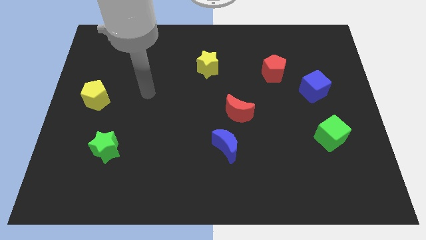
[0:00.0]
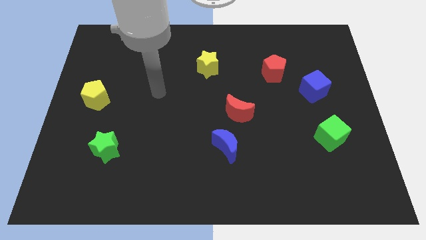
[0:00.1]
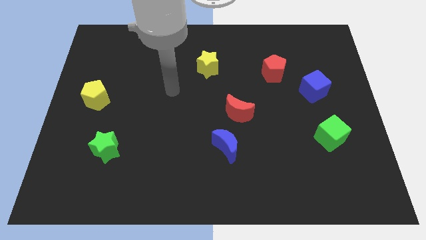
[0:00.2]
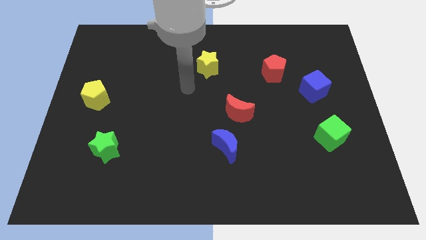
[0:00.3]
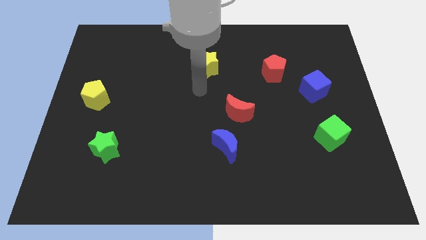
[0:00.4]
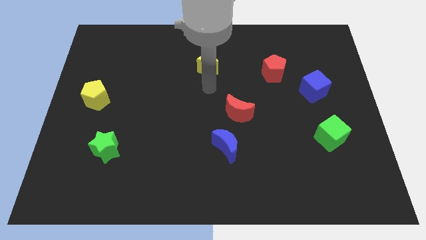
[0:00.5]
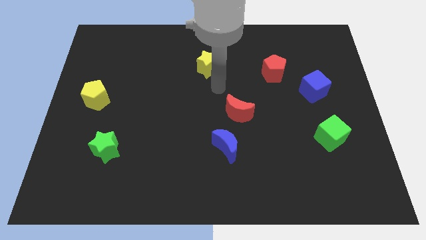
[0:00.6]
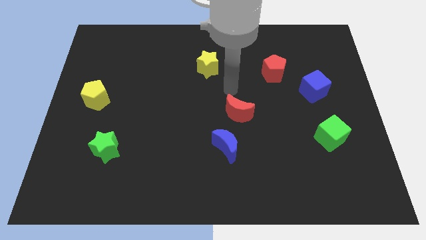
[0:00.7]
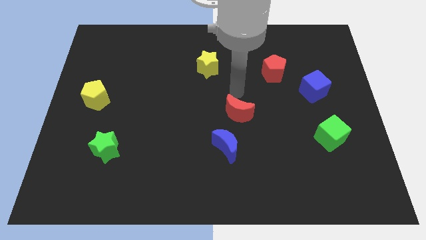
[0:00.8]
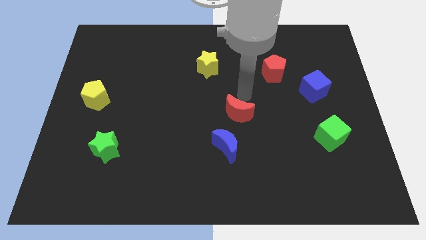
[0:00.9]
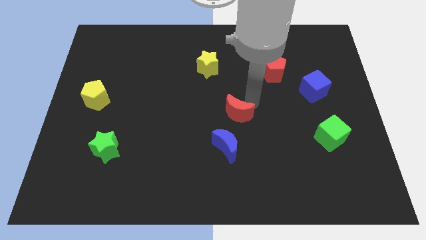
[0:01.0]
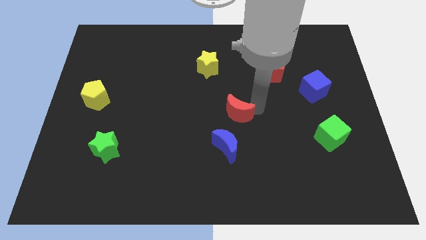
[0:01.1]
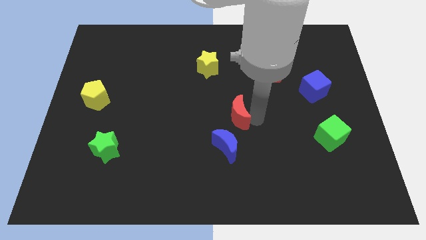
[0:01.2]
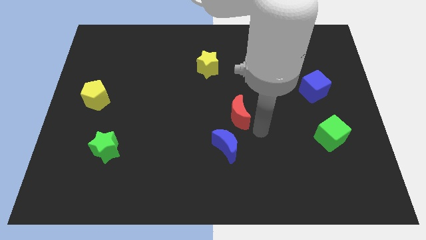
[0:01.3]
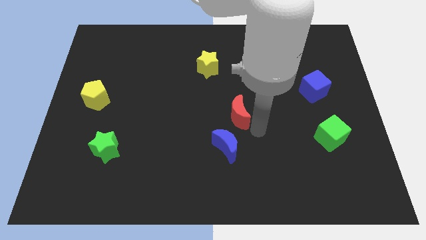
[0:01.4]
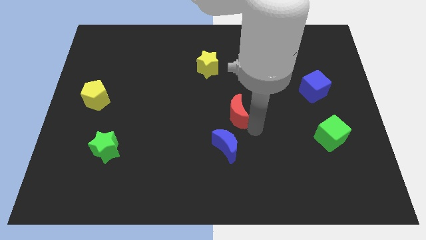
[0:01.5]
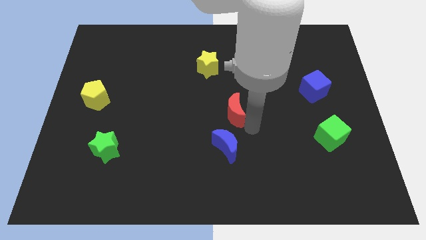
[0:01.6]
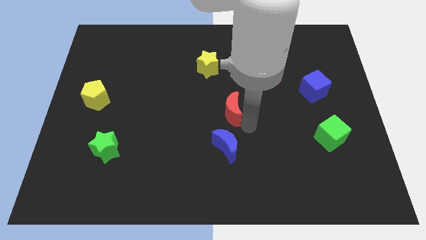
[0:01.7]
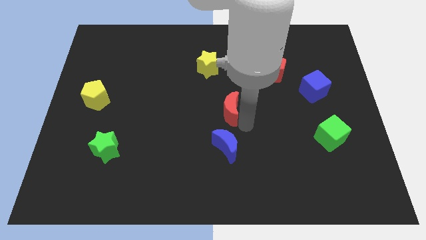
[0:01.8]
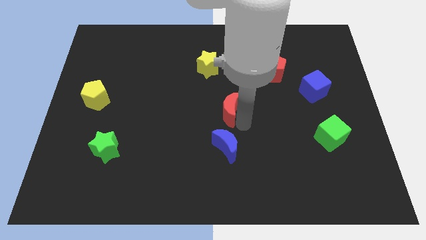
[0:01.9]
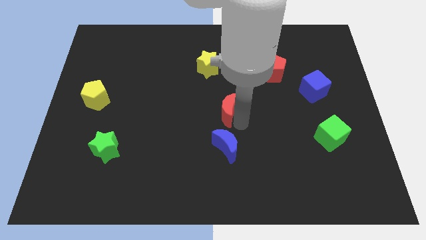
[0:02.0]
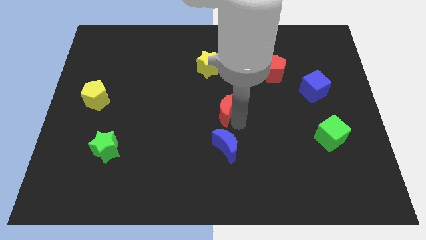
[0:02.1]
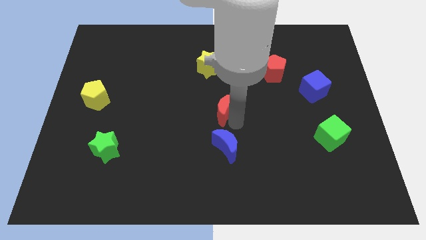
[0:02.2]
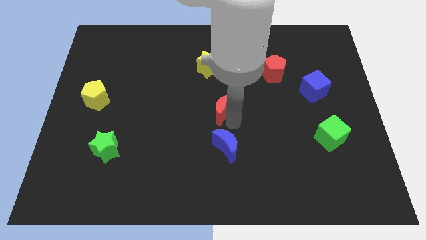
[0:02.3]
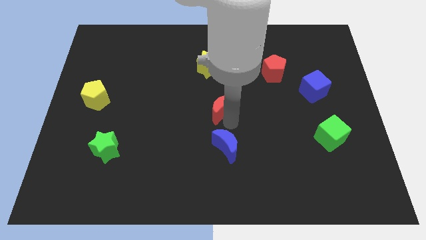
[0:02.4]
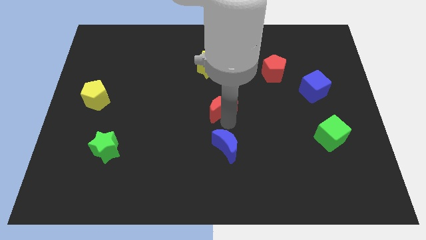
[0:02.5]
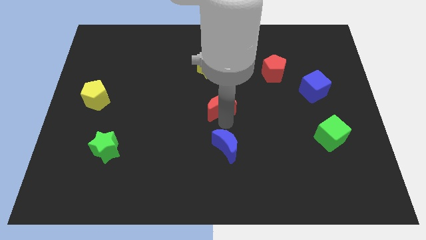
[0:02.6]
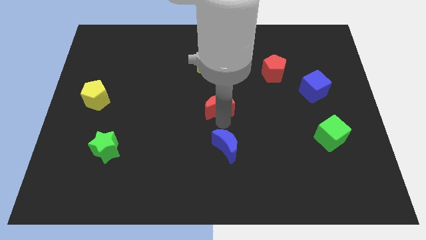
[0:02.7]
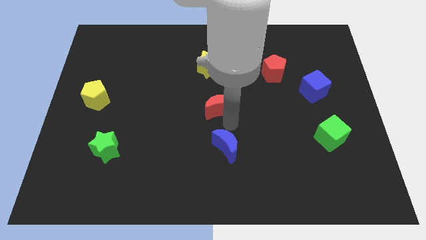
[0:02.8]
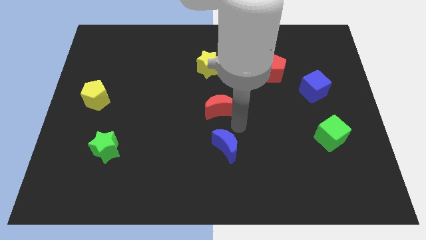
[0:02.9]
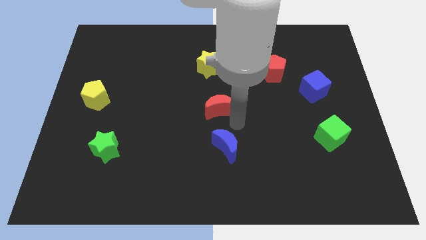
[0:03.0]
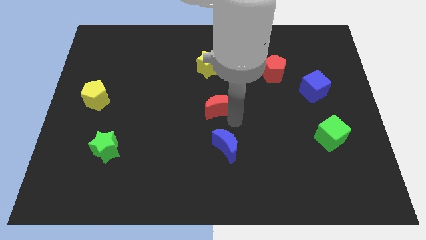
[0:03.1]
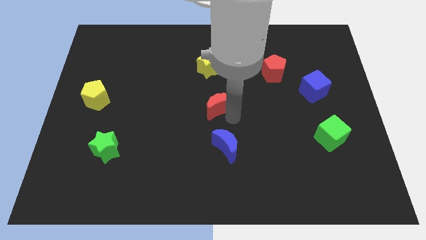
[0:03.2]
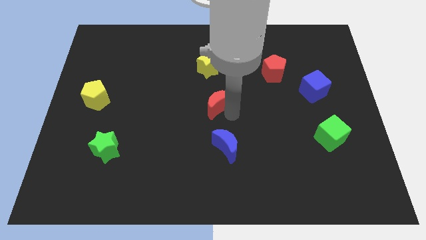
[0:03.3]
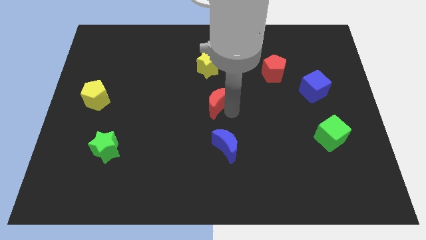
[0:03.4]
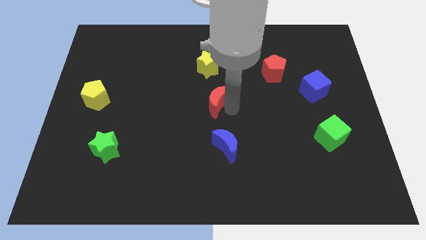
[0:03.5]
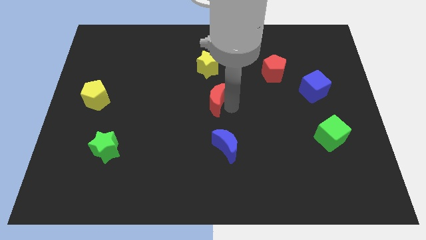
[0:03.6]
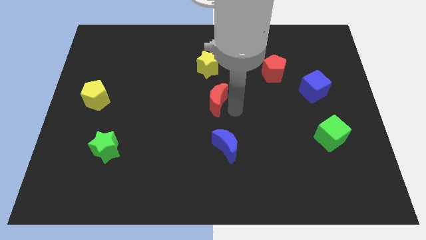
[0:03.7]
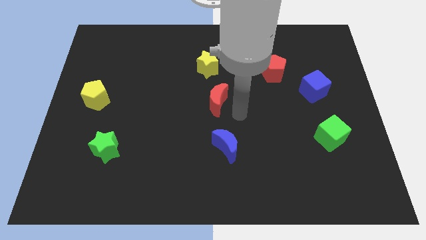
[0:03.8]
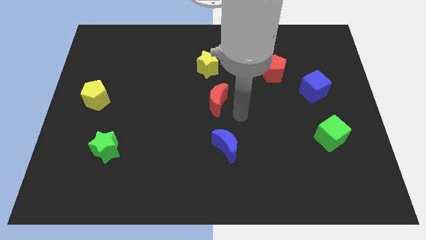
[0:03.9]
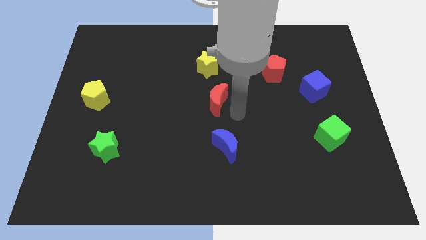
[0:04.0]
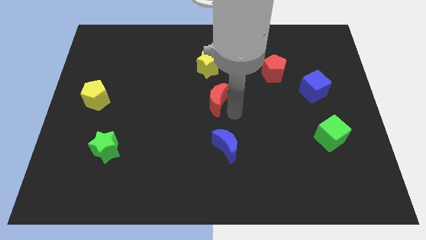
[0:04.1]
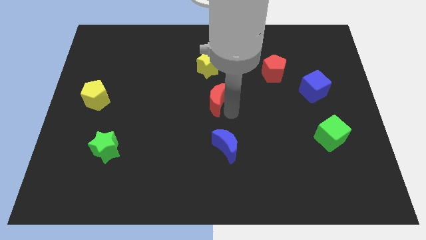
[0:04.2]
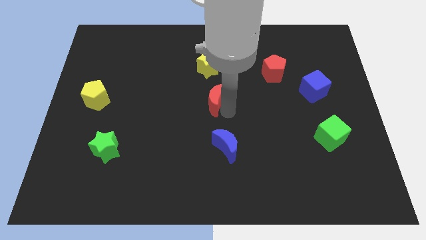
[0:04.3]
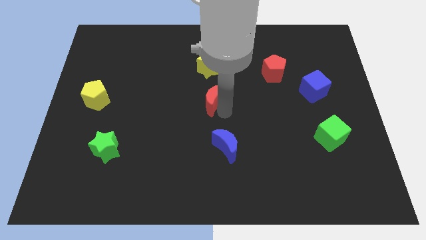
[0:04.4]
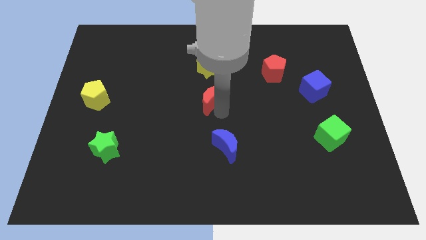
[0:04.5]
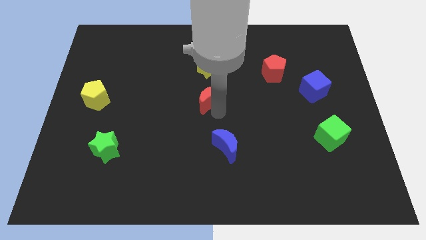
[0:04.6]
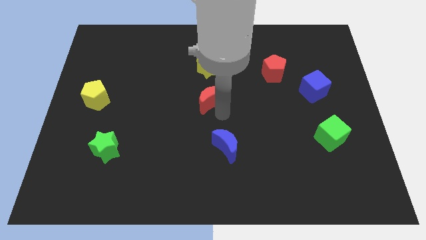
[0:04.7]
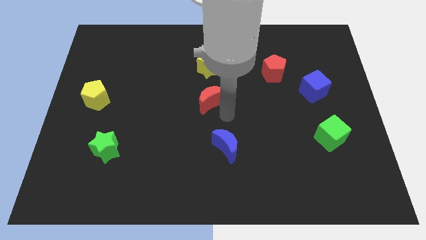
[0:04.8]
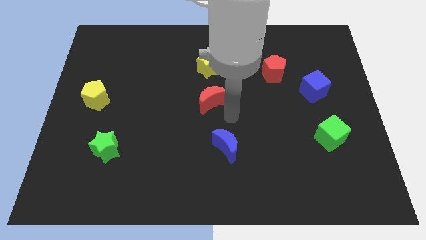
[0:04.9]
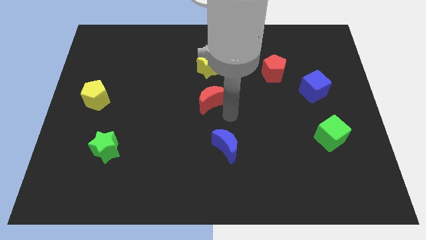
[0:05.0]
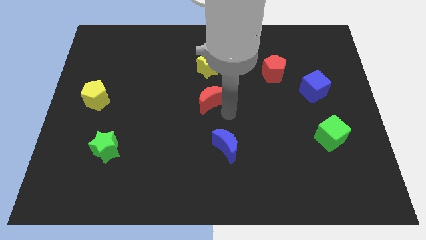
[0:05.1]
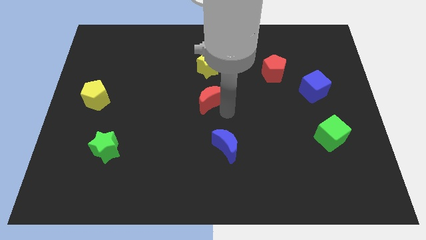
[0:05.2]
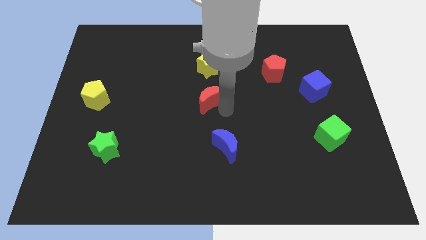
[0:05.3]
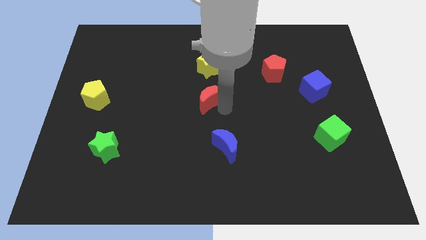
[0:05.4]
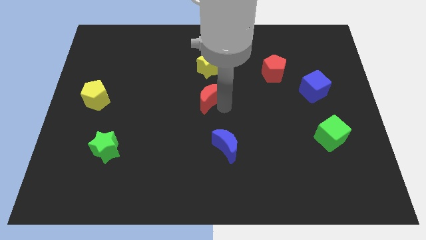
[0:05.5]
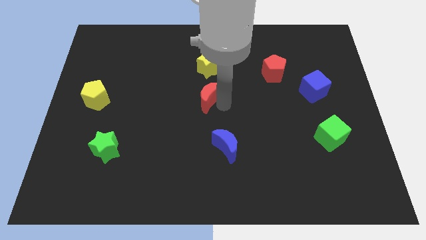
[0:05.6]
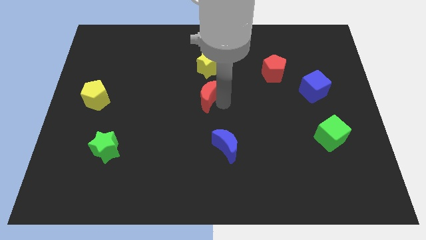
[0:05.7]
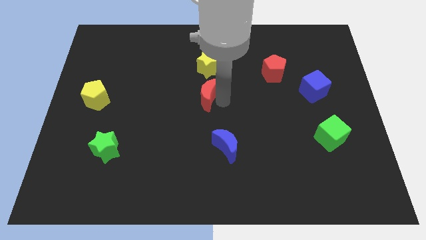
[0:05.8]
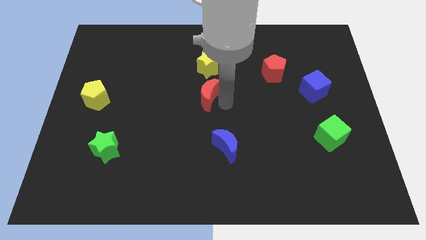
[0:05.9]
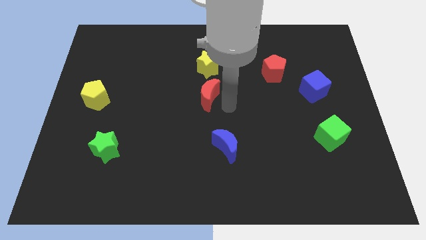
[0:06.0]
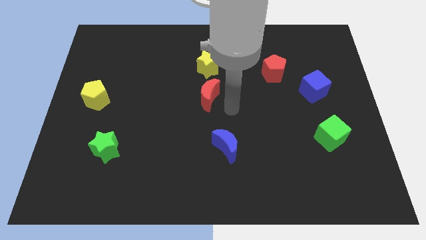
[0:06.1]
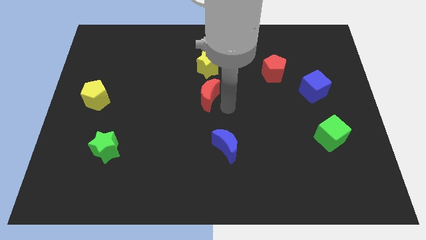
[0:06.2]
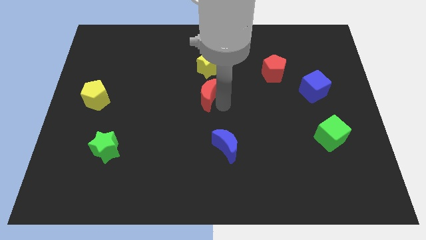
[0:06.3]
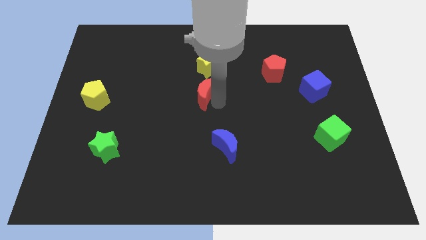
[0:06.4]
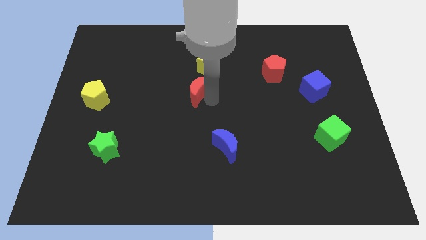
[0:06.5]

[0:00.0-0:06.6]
put the red moon diagonally down and to the left of the yellow star
